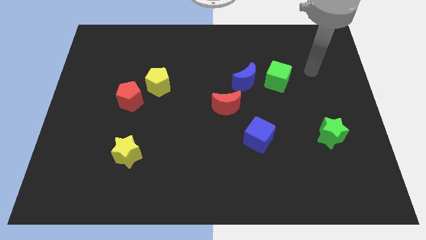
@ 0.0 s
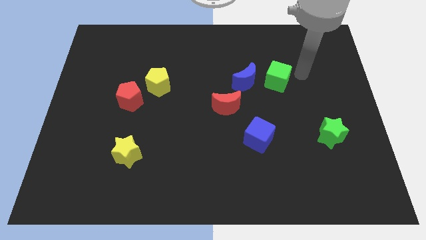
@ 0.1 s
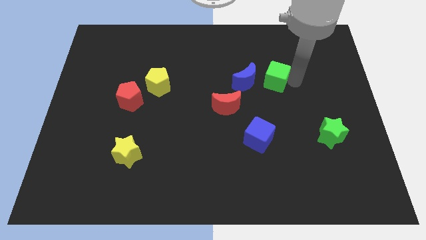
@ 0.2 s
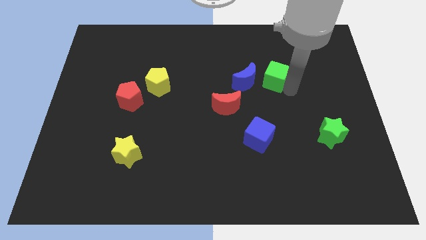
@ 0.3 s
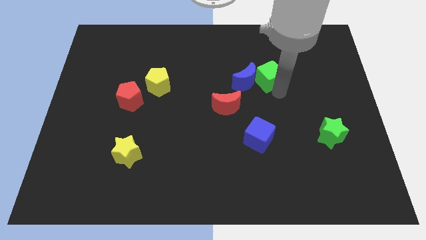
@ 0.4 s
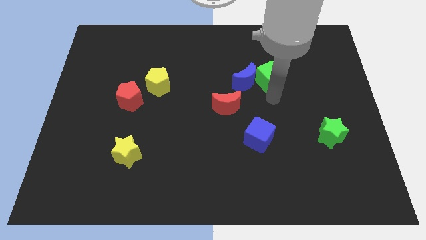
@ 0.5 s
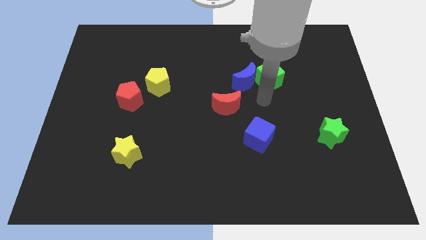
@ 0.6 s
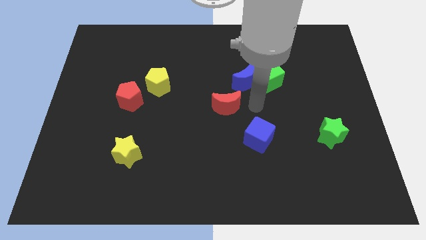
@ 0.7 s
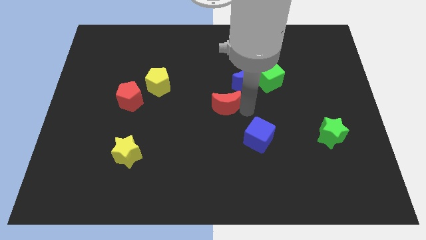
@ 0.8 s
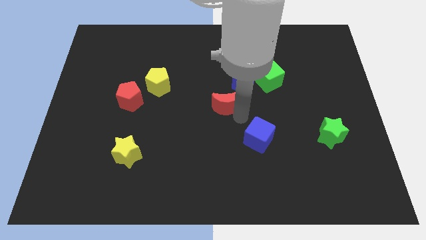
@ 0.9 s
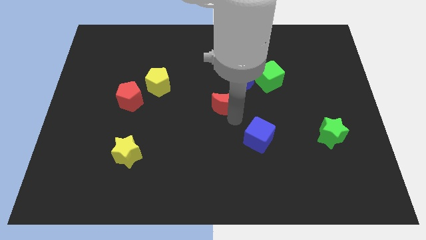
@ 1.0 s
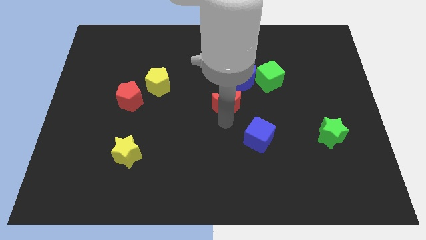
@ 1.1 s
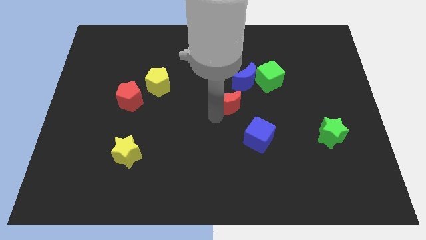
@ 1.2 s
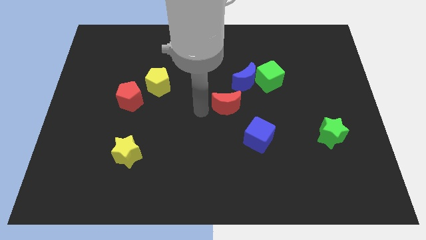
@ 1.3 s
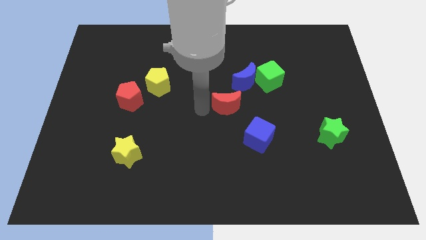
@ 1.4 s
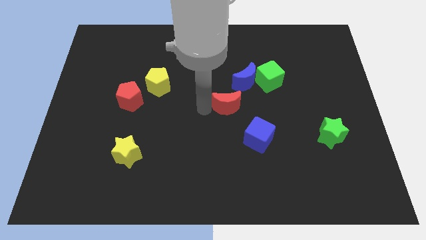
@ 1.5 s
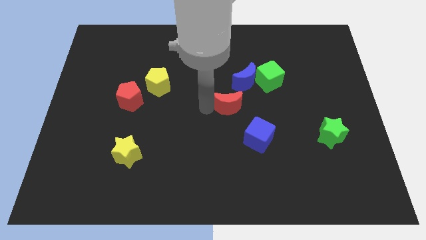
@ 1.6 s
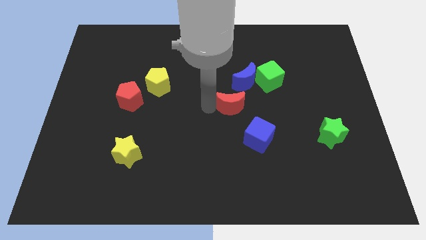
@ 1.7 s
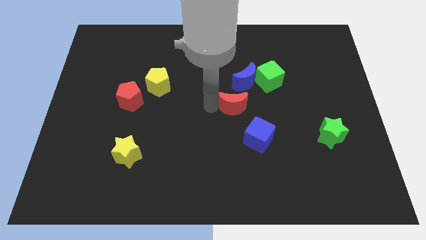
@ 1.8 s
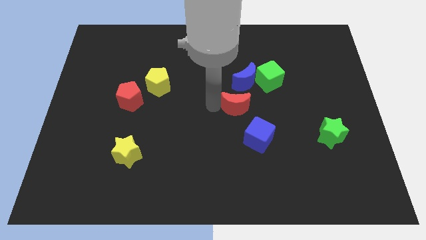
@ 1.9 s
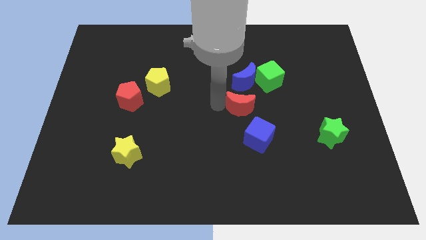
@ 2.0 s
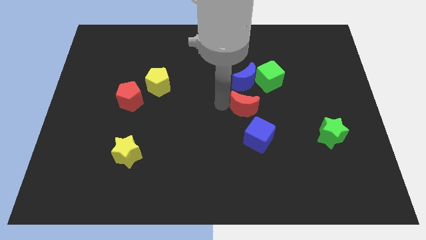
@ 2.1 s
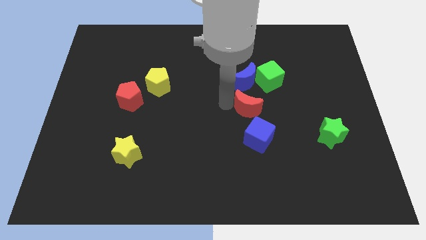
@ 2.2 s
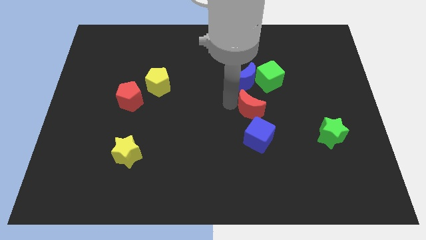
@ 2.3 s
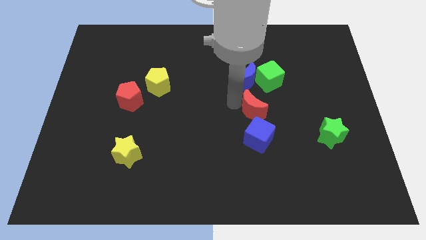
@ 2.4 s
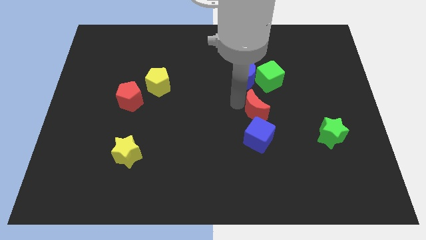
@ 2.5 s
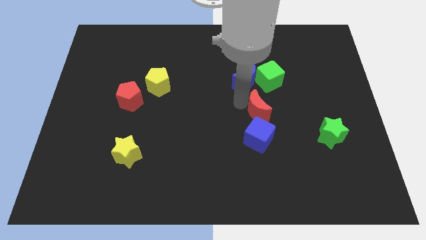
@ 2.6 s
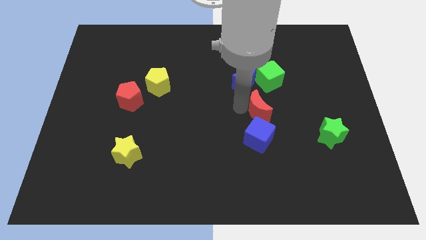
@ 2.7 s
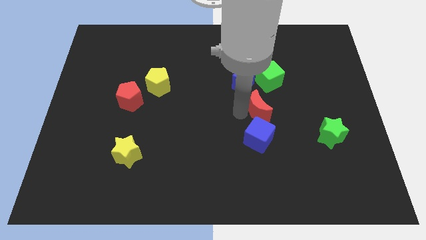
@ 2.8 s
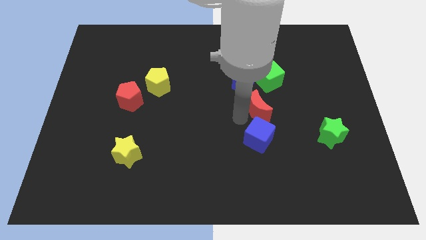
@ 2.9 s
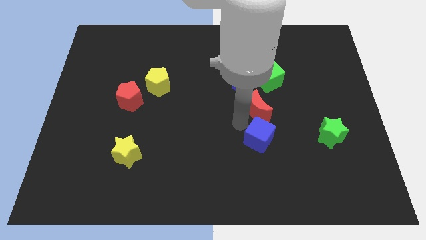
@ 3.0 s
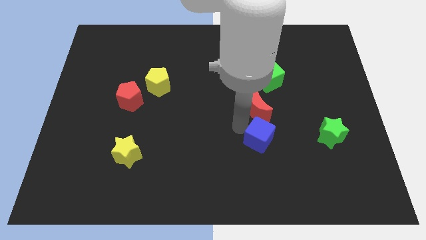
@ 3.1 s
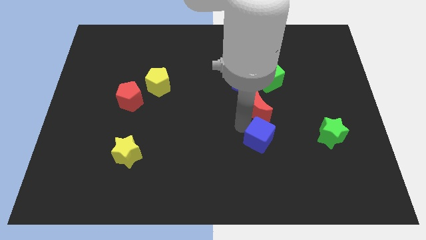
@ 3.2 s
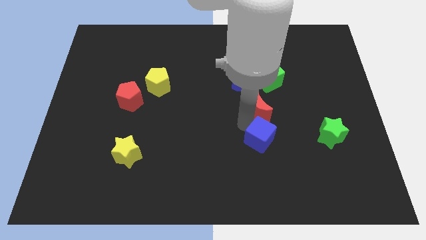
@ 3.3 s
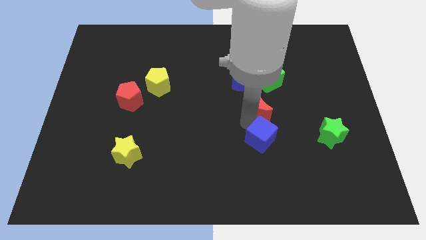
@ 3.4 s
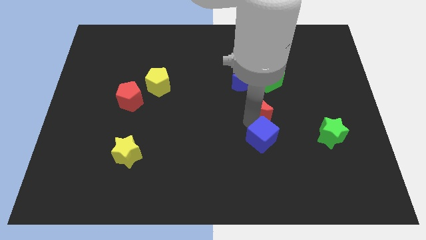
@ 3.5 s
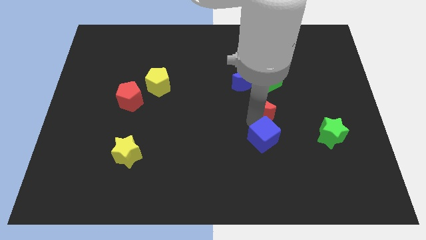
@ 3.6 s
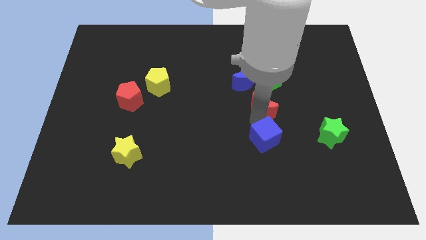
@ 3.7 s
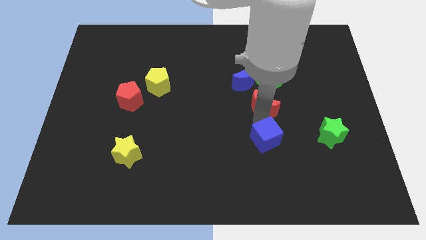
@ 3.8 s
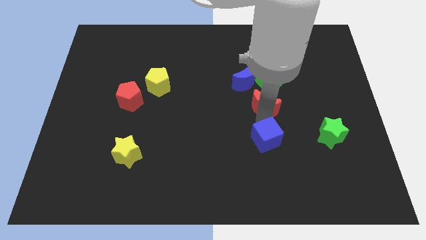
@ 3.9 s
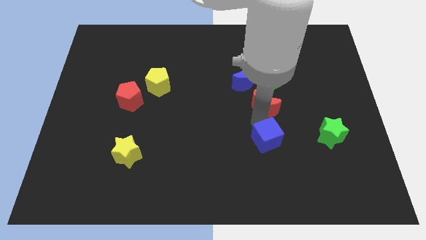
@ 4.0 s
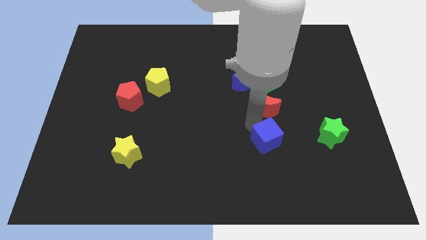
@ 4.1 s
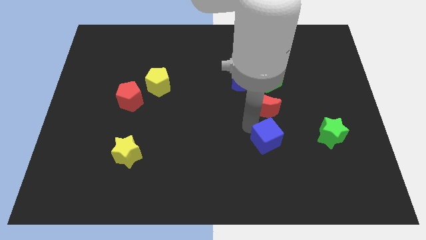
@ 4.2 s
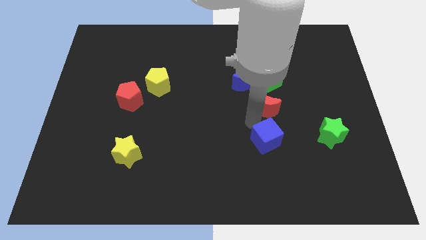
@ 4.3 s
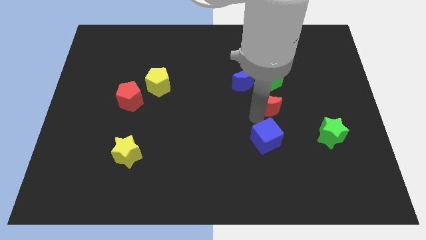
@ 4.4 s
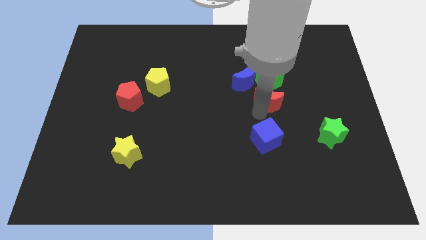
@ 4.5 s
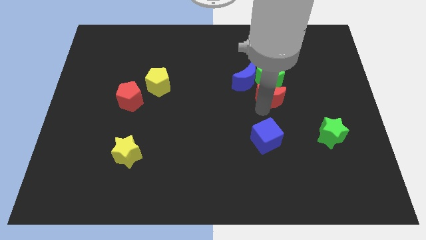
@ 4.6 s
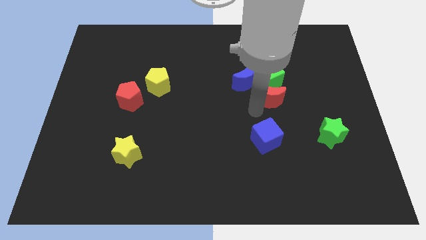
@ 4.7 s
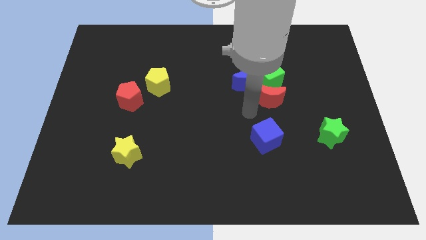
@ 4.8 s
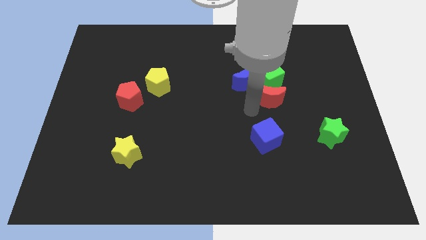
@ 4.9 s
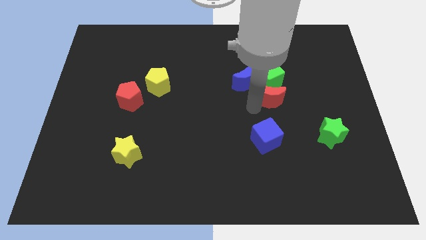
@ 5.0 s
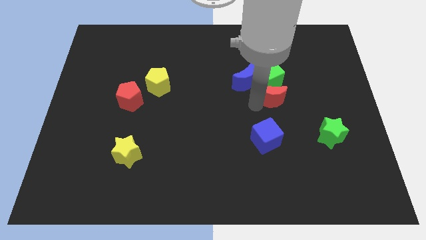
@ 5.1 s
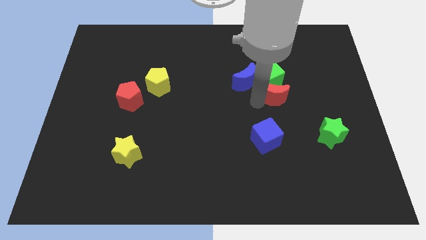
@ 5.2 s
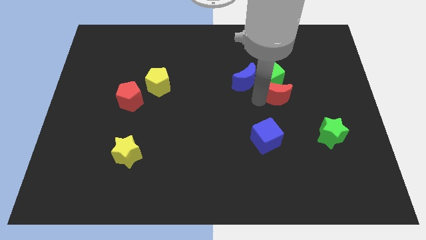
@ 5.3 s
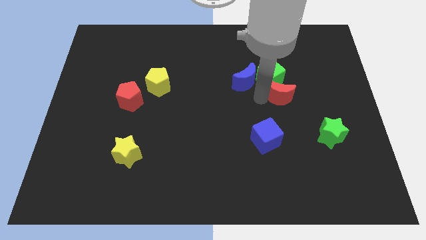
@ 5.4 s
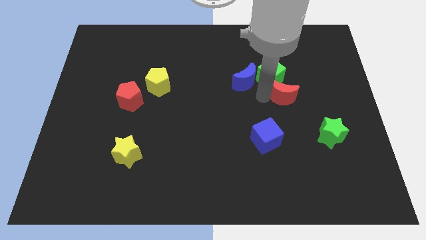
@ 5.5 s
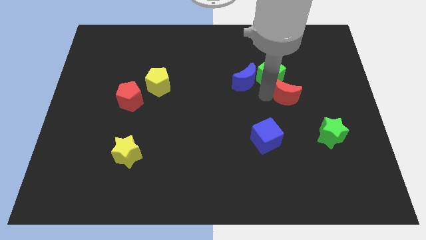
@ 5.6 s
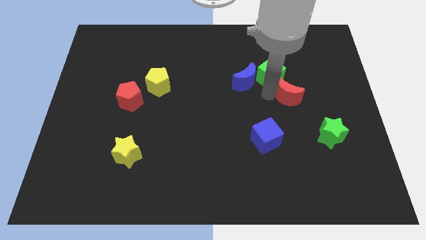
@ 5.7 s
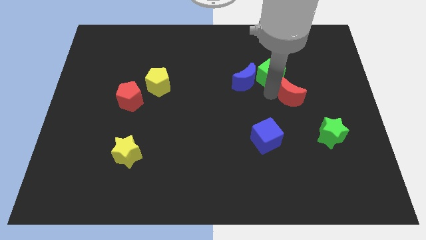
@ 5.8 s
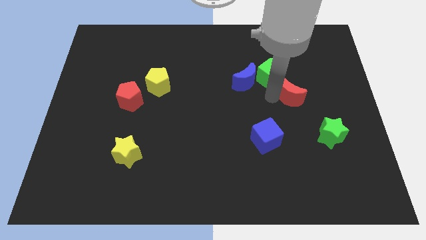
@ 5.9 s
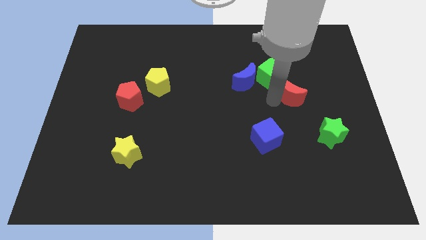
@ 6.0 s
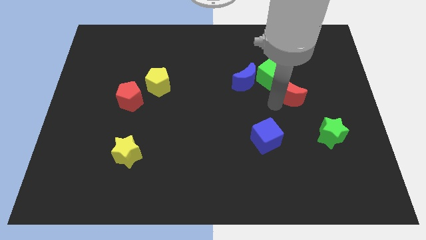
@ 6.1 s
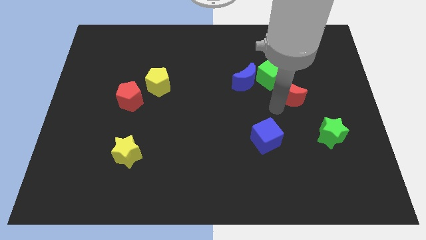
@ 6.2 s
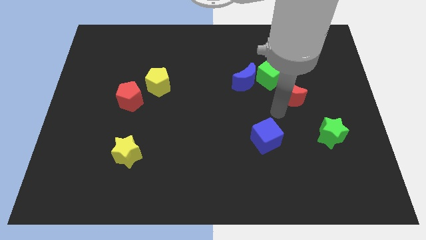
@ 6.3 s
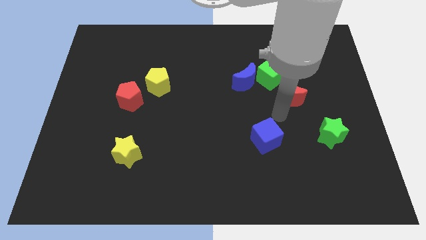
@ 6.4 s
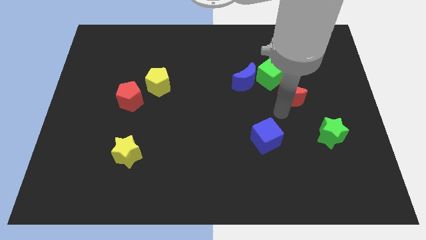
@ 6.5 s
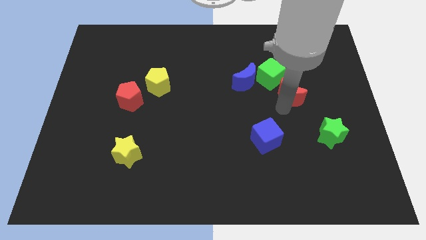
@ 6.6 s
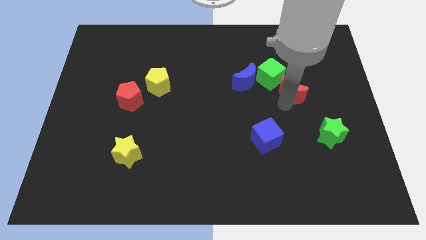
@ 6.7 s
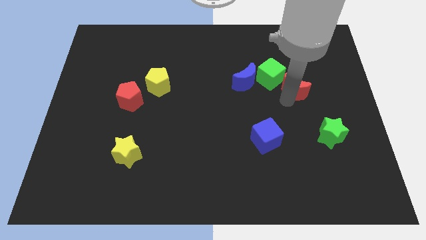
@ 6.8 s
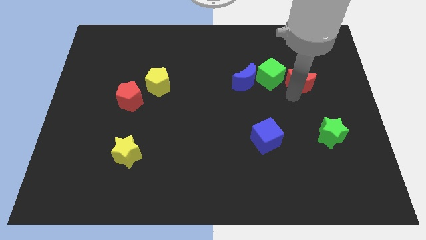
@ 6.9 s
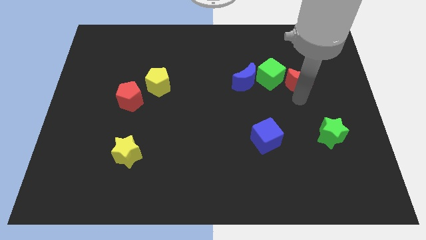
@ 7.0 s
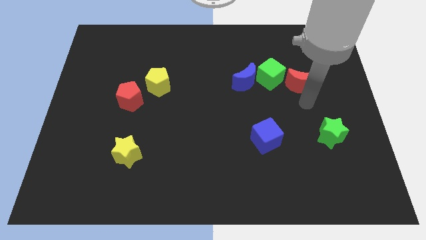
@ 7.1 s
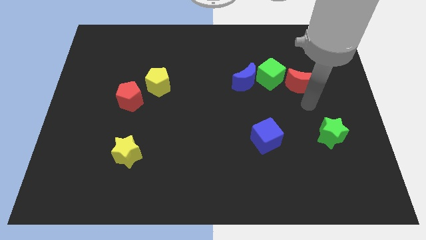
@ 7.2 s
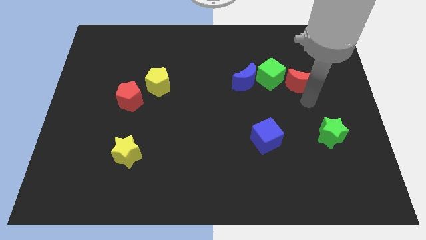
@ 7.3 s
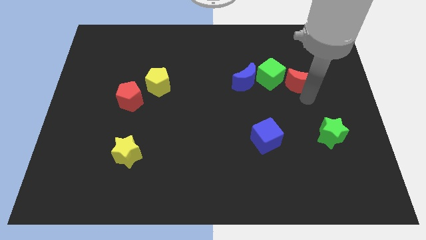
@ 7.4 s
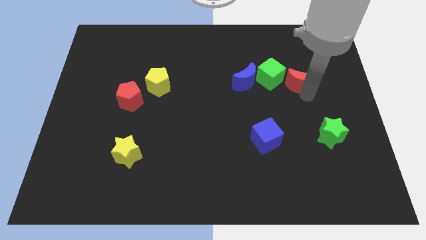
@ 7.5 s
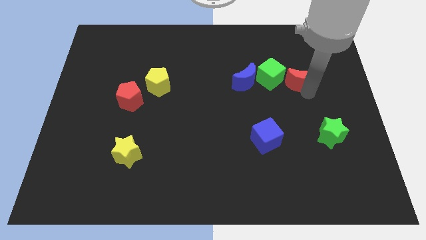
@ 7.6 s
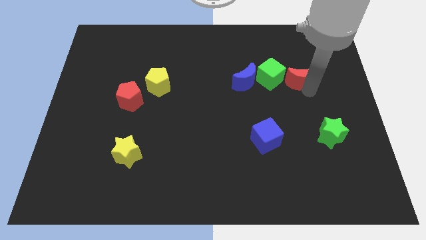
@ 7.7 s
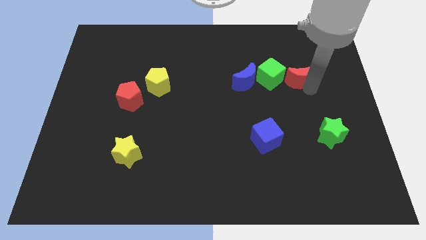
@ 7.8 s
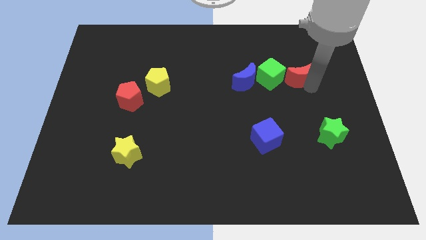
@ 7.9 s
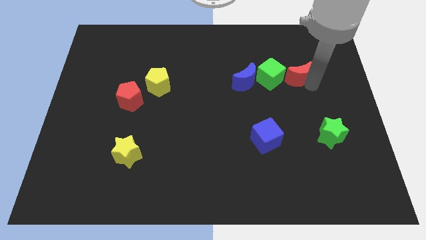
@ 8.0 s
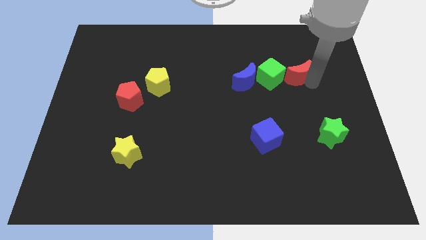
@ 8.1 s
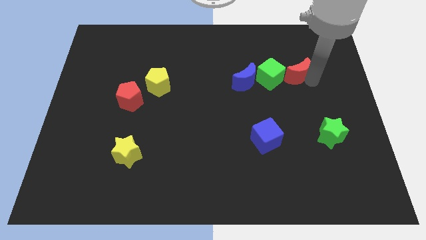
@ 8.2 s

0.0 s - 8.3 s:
push the red moon to the top right of the green cube
